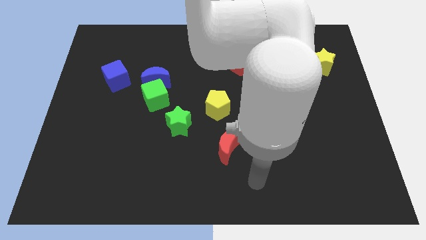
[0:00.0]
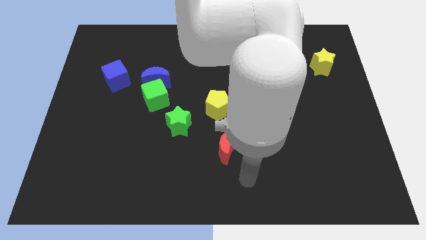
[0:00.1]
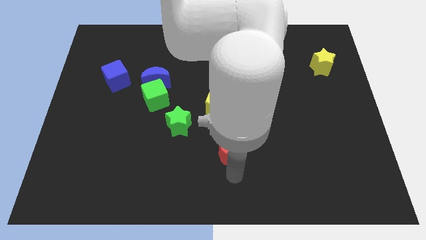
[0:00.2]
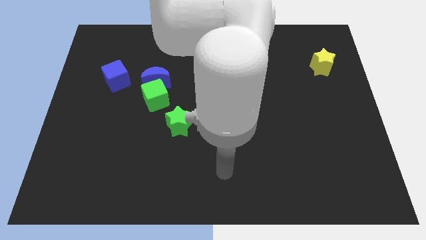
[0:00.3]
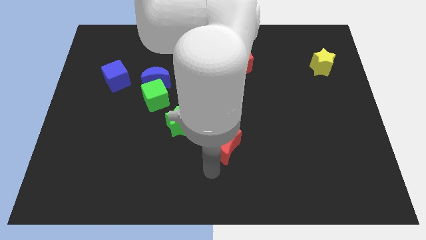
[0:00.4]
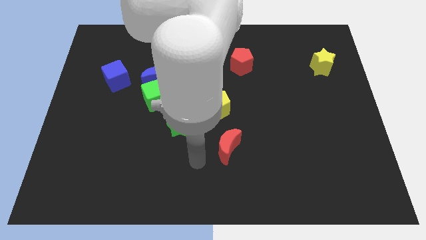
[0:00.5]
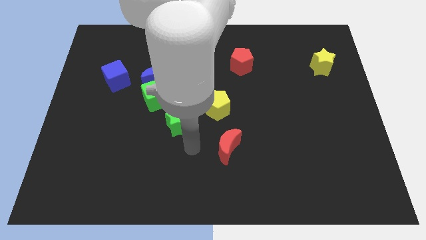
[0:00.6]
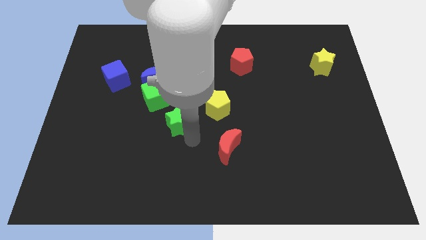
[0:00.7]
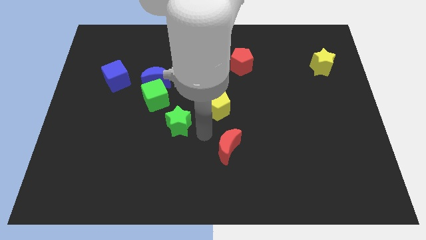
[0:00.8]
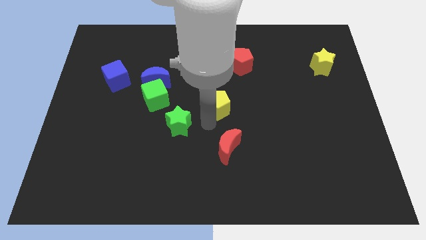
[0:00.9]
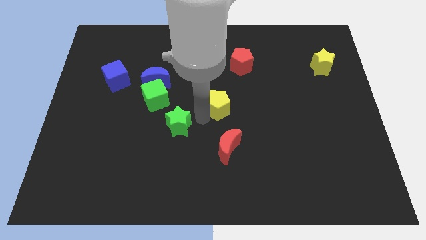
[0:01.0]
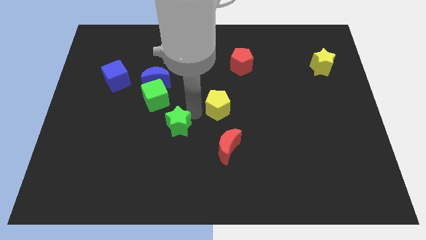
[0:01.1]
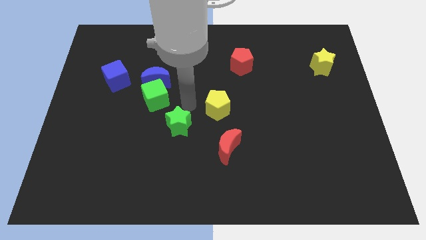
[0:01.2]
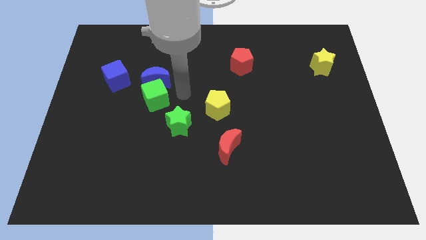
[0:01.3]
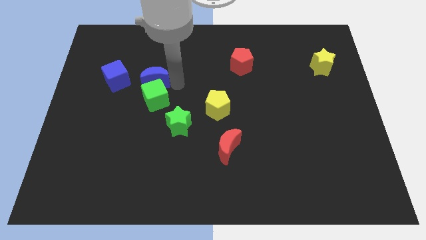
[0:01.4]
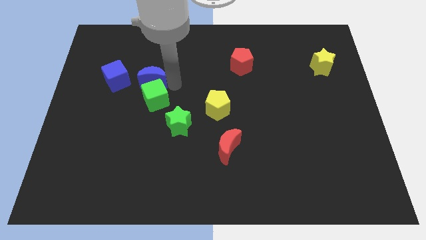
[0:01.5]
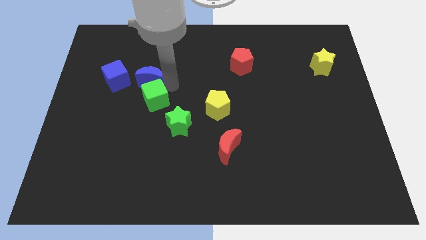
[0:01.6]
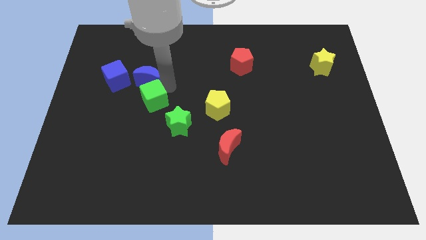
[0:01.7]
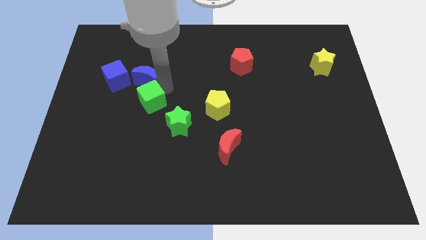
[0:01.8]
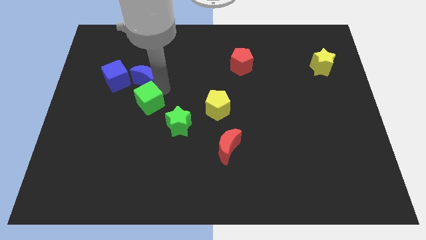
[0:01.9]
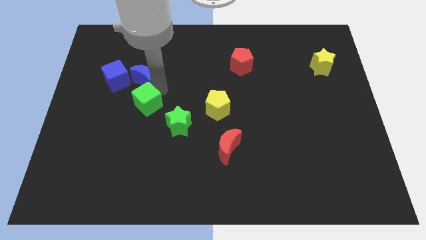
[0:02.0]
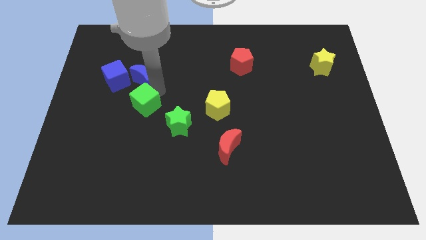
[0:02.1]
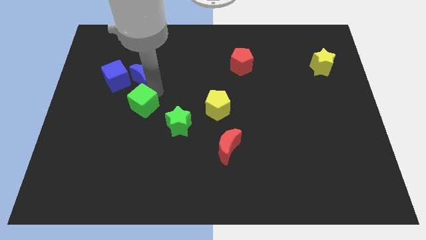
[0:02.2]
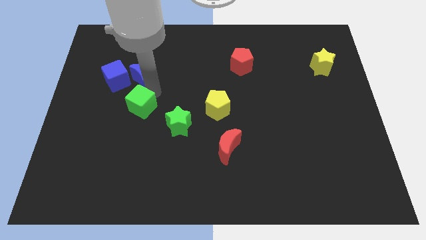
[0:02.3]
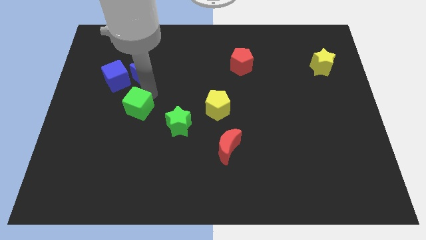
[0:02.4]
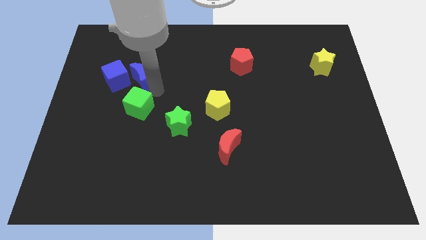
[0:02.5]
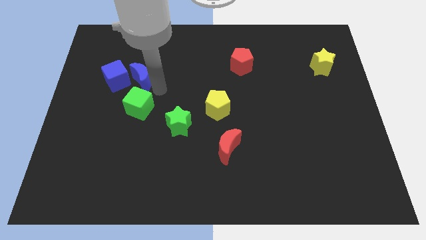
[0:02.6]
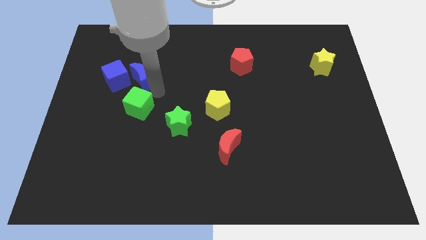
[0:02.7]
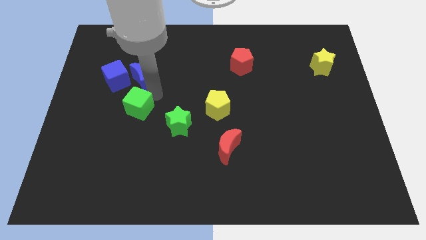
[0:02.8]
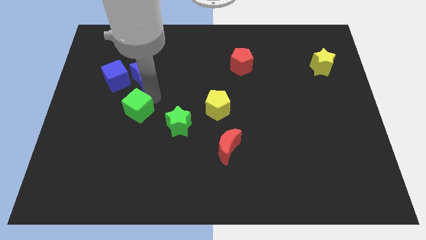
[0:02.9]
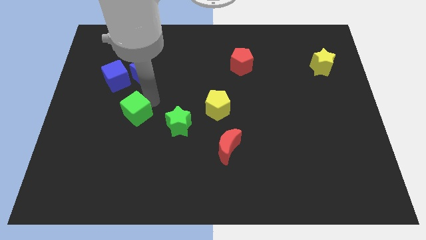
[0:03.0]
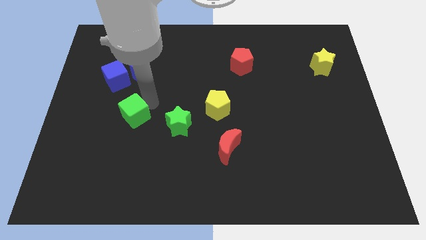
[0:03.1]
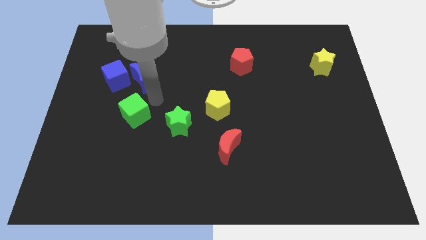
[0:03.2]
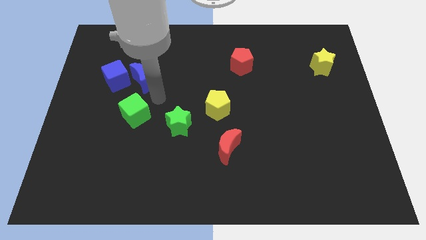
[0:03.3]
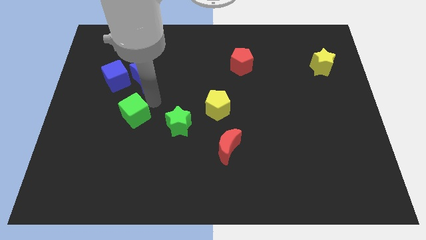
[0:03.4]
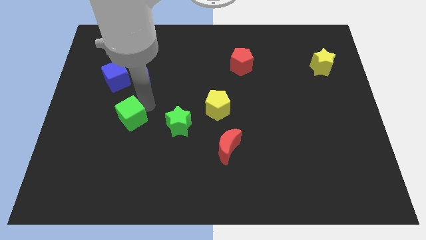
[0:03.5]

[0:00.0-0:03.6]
slightly move the green cube down and then left

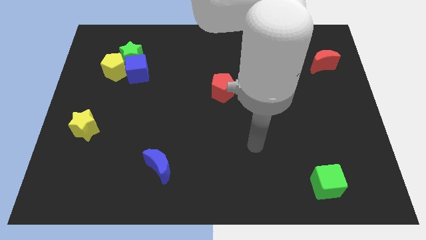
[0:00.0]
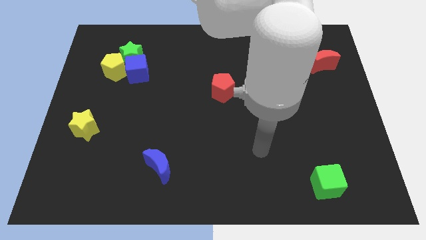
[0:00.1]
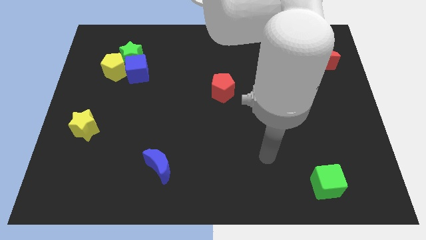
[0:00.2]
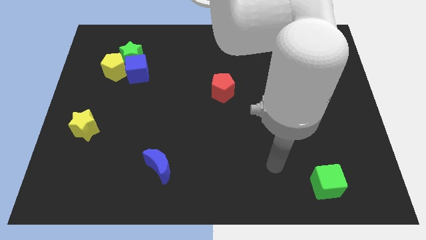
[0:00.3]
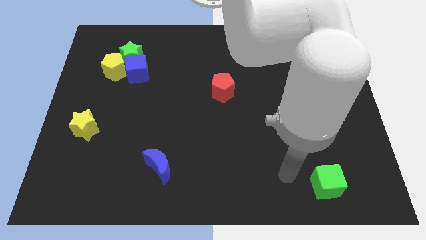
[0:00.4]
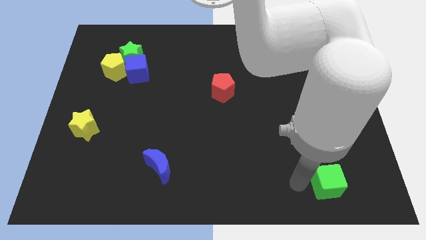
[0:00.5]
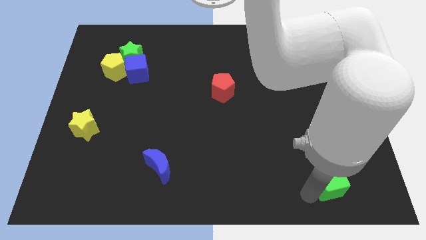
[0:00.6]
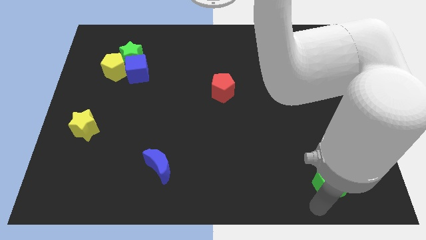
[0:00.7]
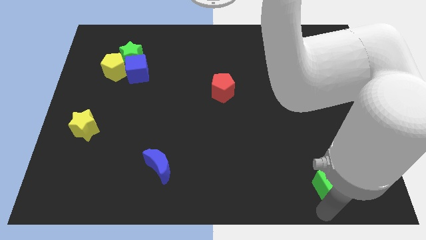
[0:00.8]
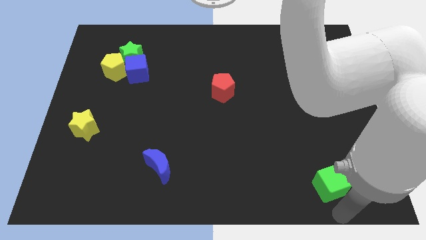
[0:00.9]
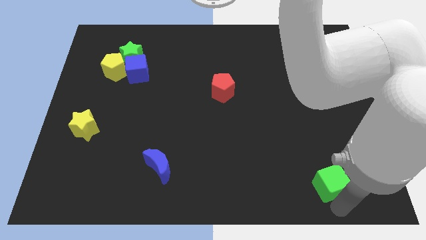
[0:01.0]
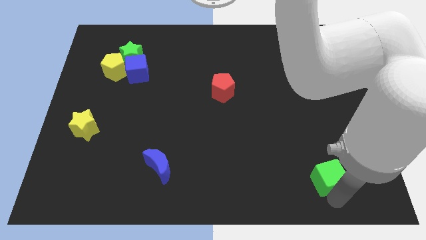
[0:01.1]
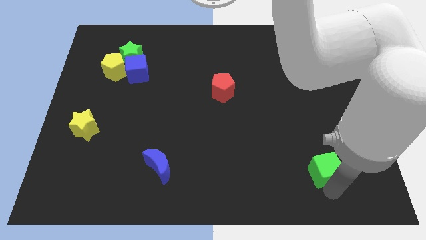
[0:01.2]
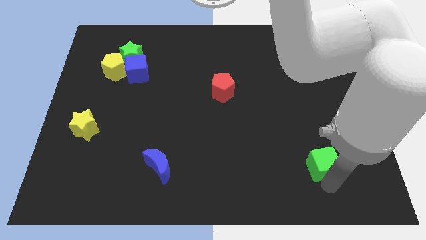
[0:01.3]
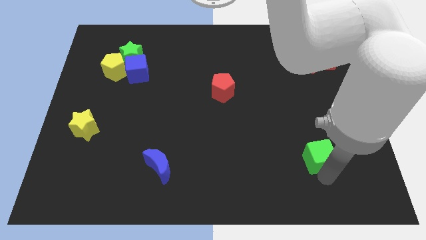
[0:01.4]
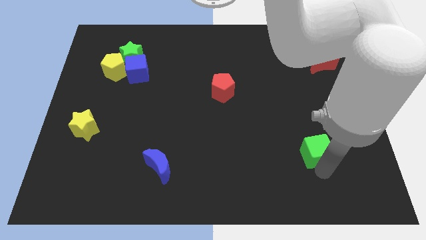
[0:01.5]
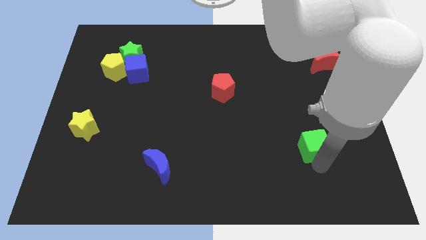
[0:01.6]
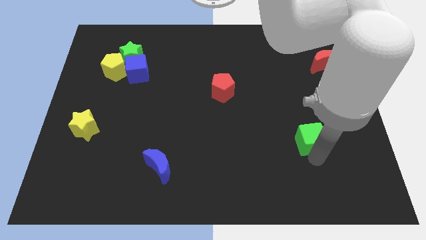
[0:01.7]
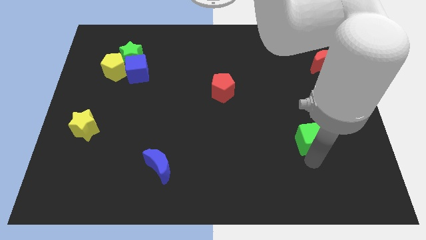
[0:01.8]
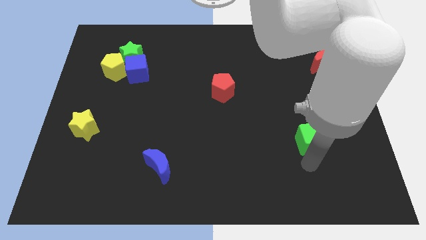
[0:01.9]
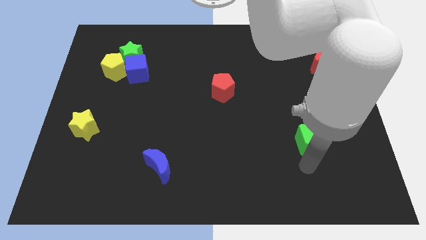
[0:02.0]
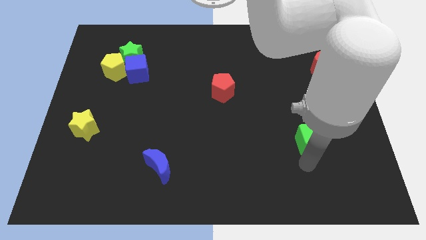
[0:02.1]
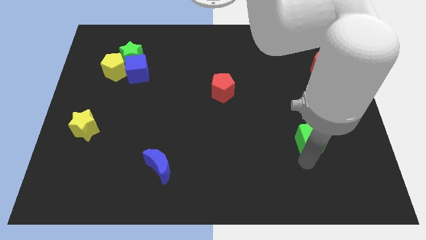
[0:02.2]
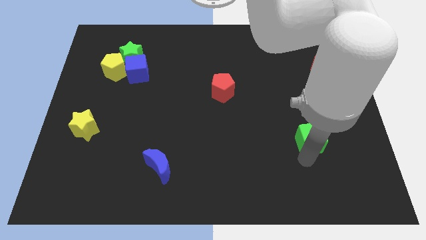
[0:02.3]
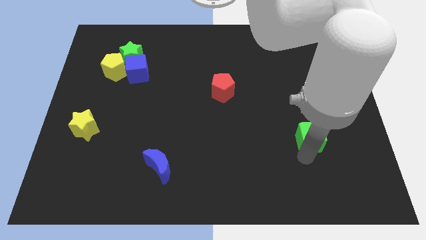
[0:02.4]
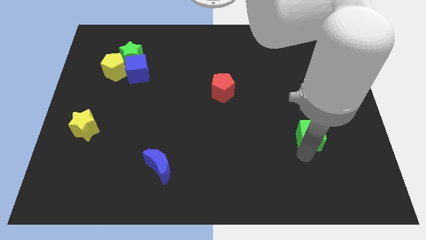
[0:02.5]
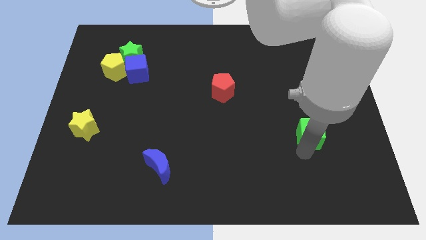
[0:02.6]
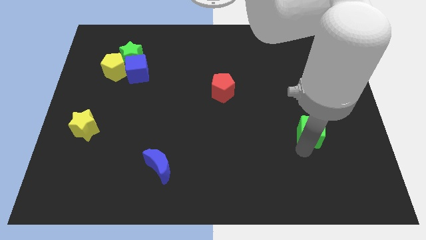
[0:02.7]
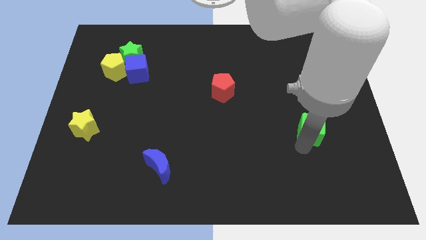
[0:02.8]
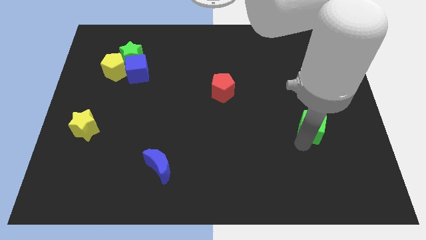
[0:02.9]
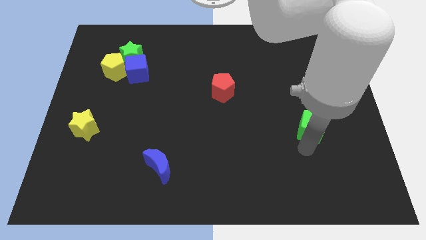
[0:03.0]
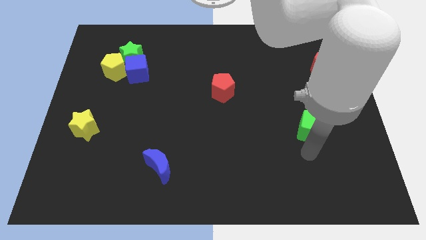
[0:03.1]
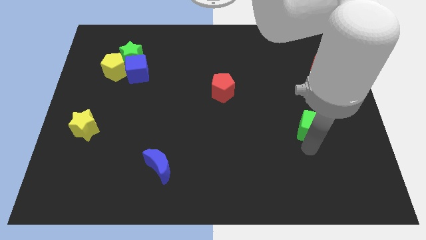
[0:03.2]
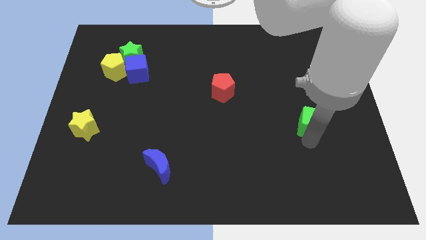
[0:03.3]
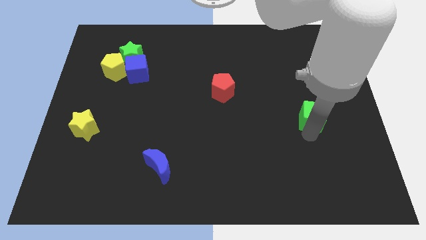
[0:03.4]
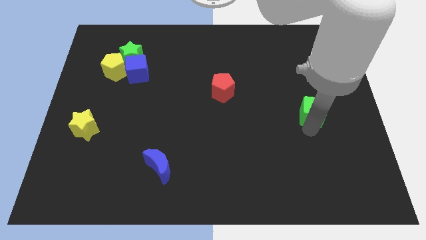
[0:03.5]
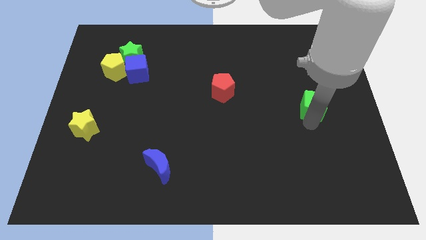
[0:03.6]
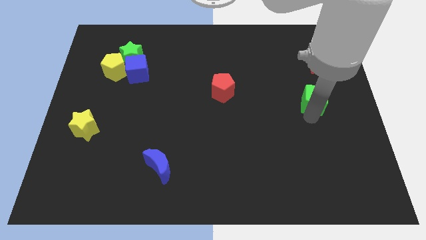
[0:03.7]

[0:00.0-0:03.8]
push the green cube up
